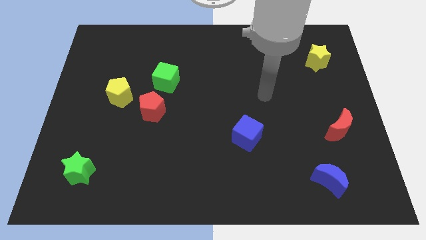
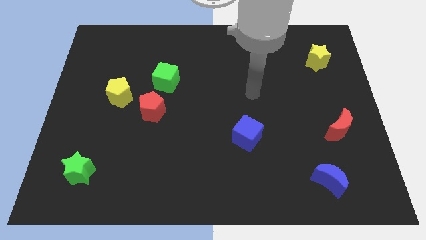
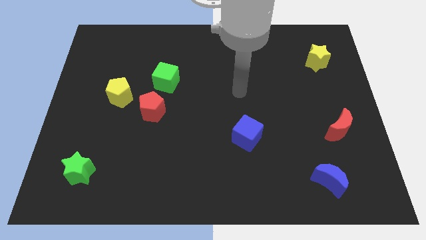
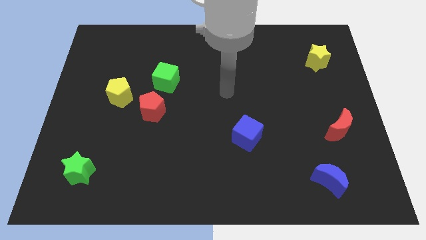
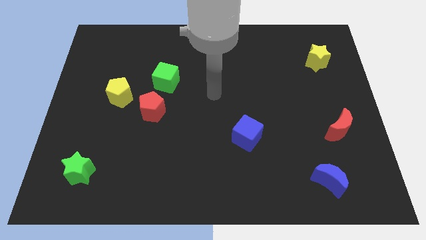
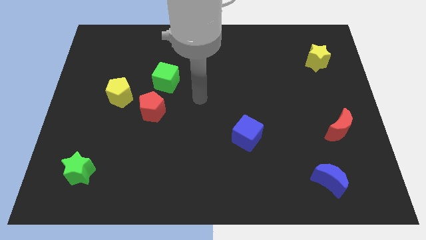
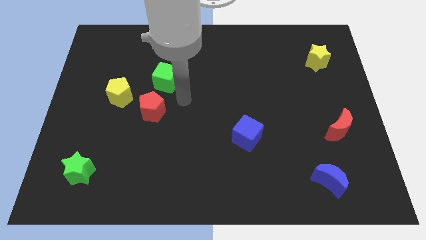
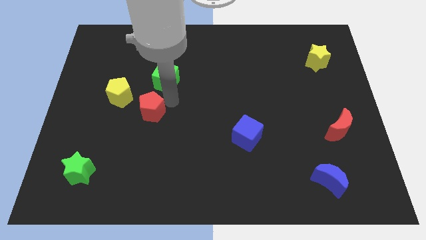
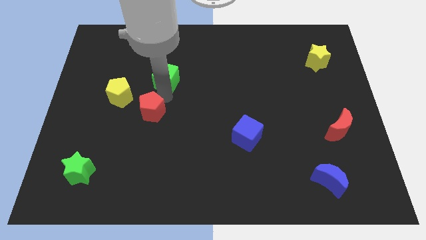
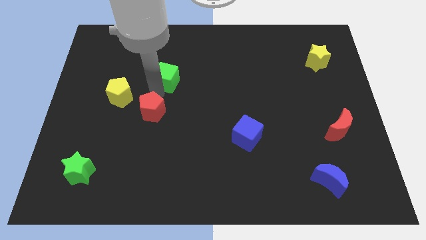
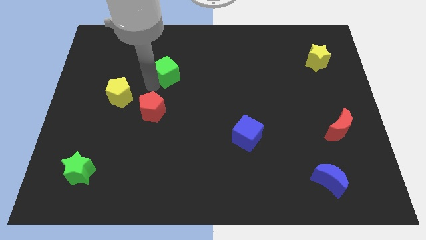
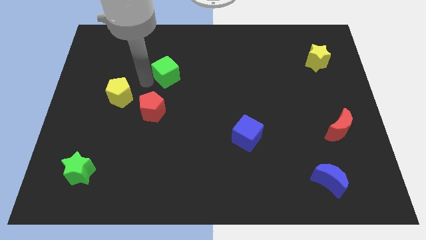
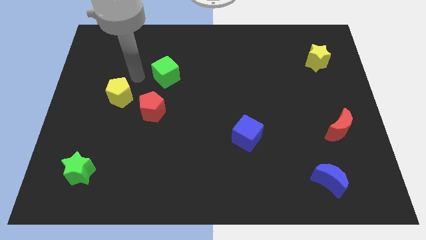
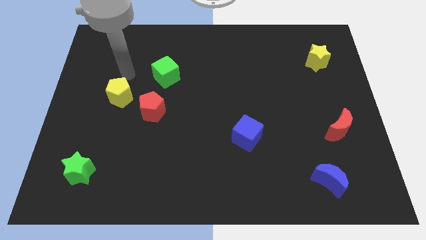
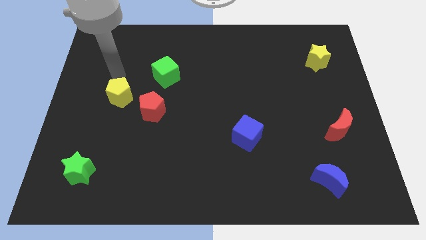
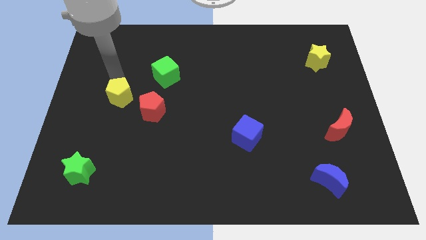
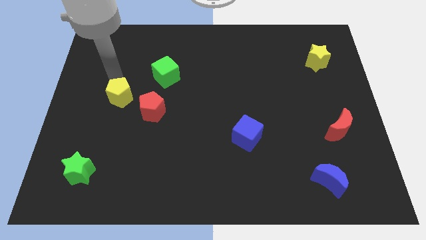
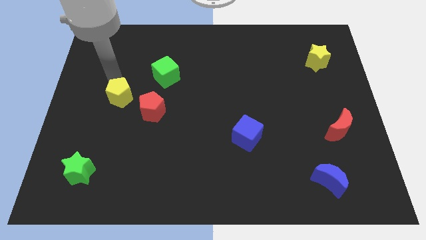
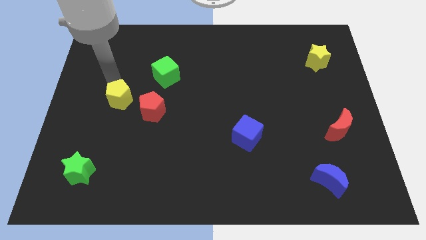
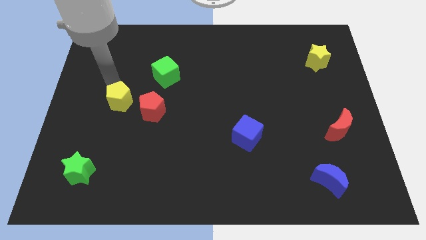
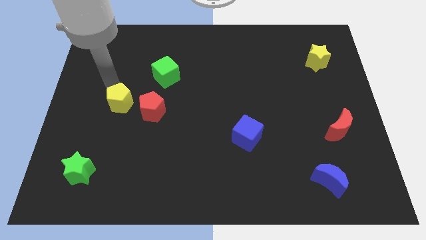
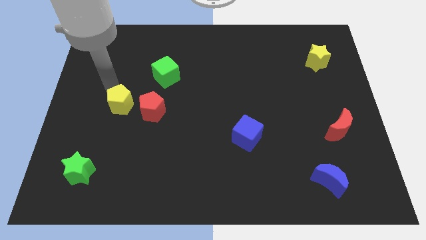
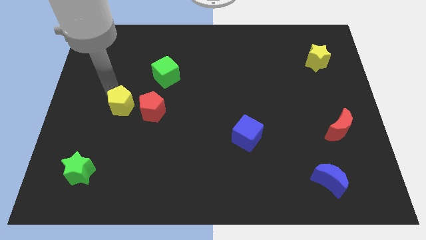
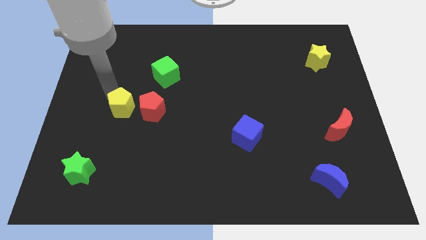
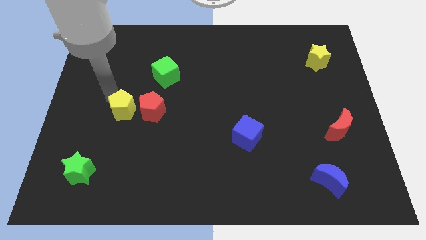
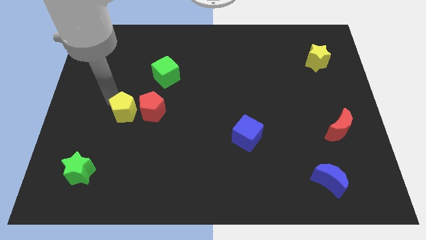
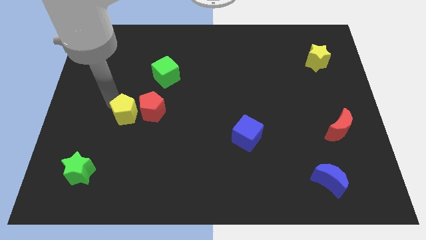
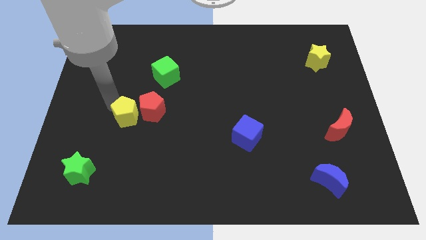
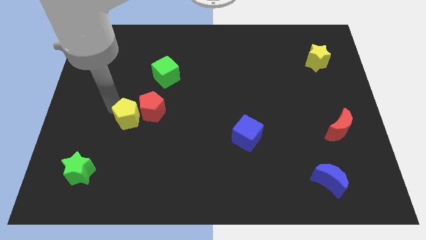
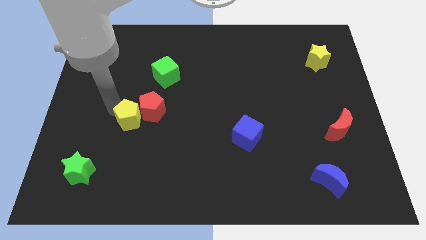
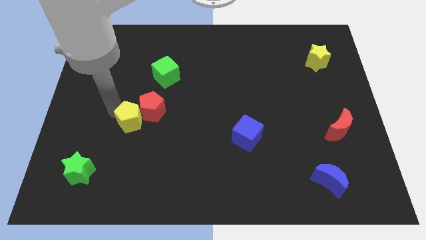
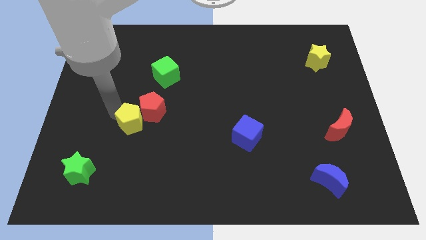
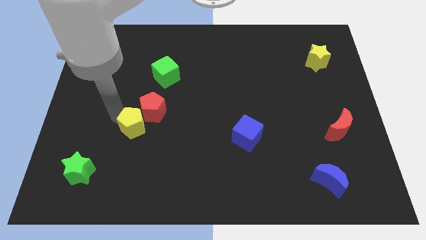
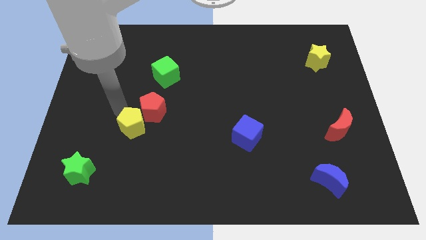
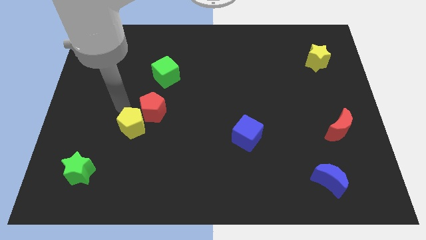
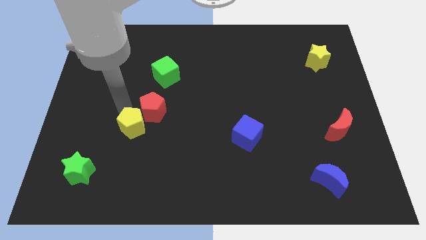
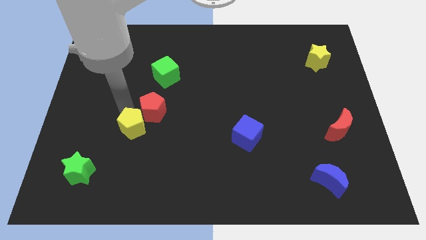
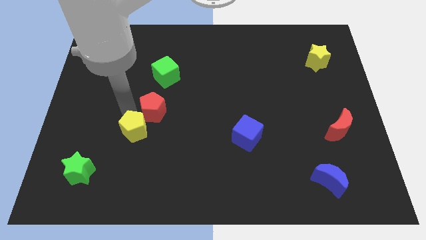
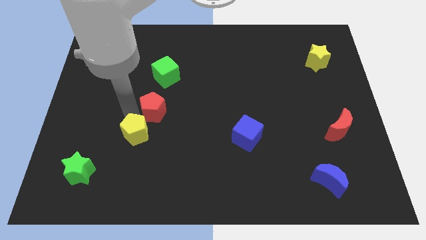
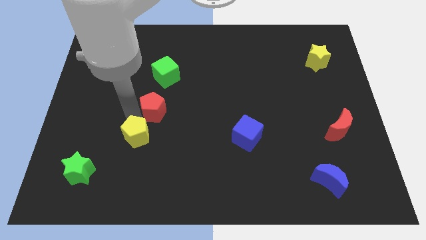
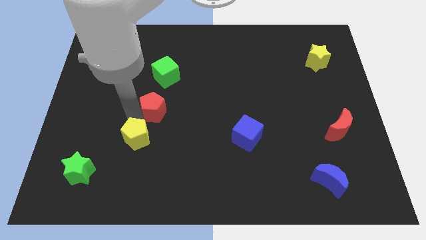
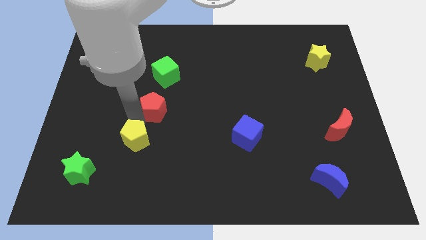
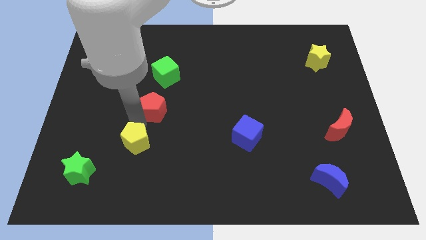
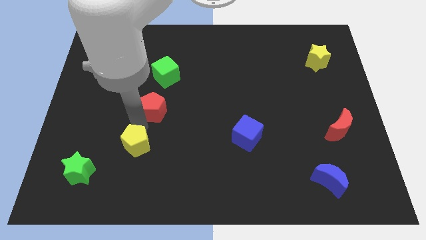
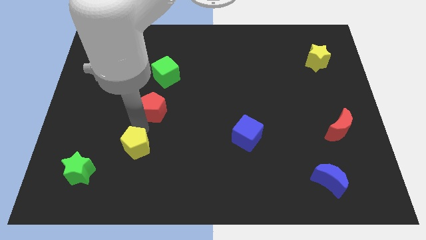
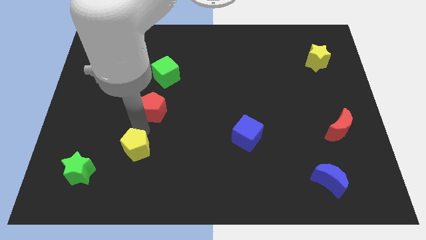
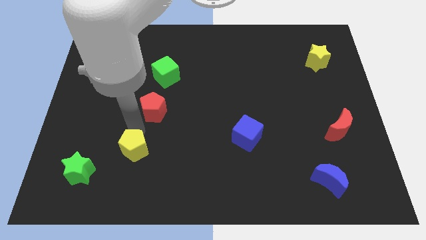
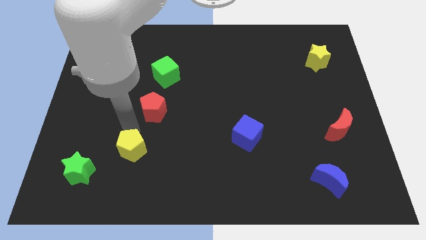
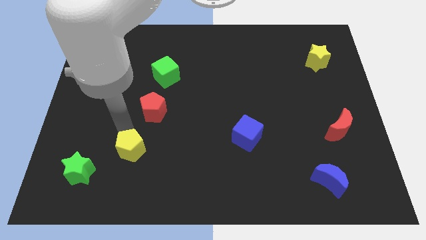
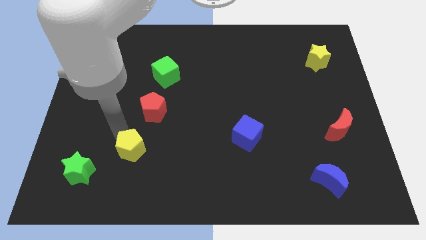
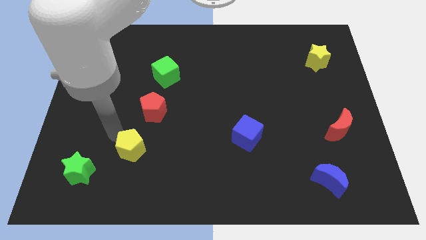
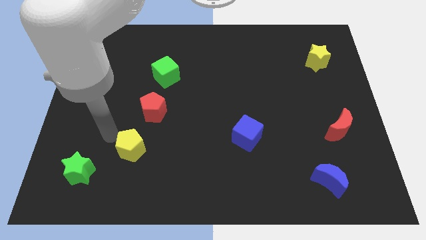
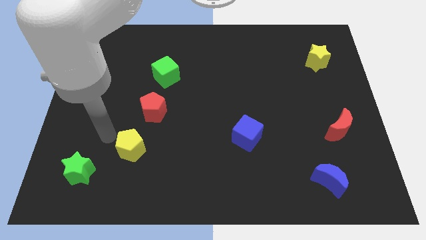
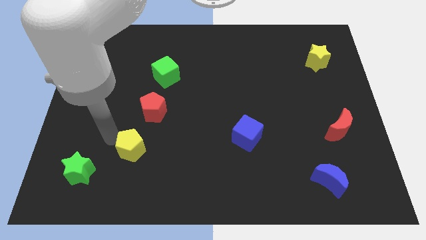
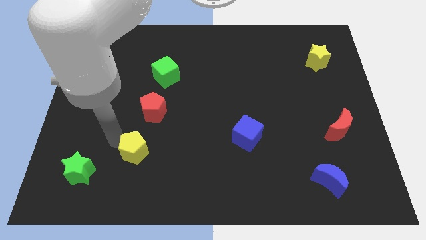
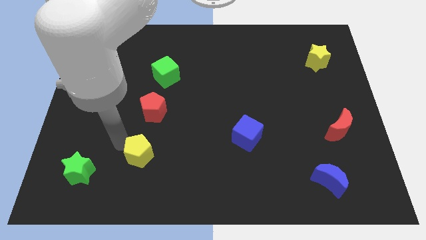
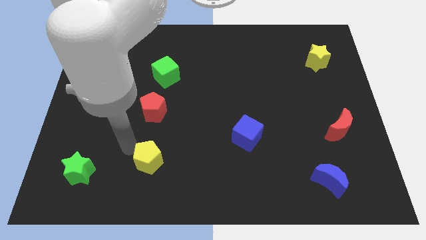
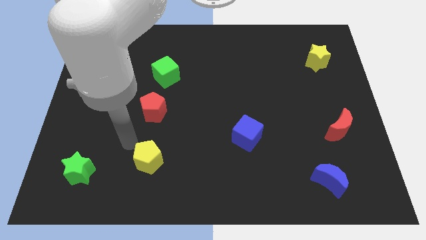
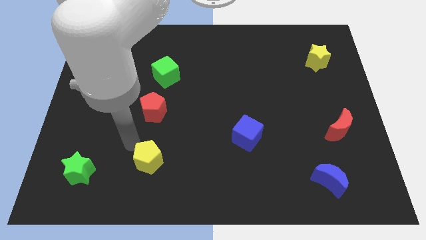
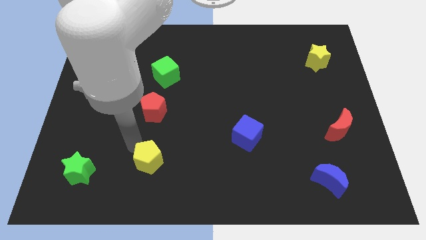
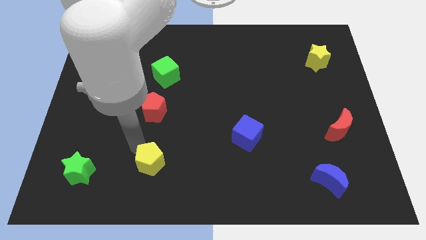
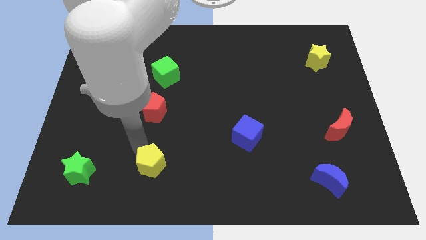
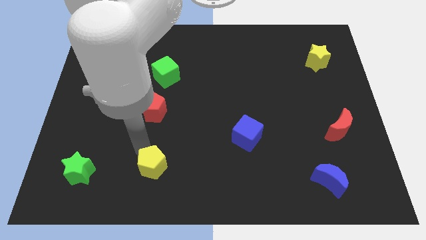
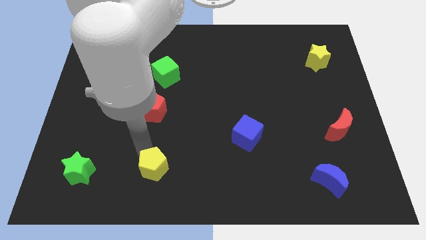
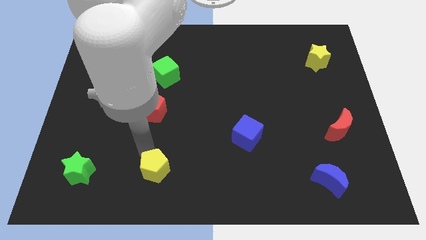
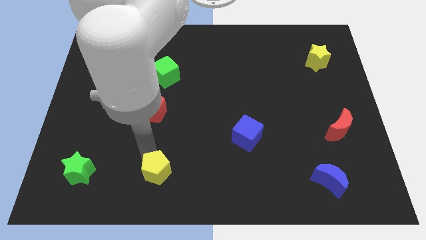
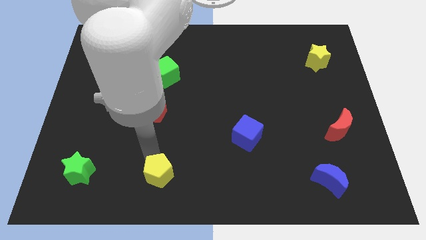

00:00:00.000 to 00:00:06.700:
push the yellow pentagon to the bottom side
